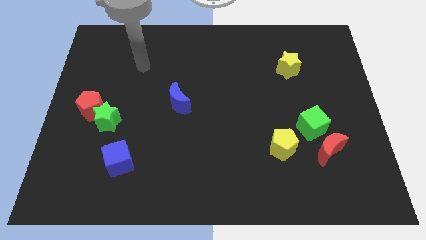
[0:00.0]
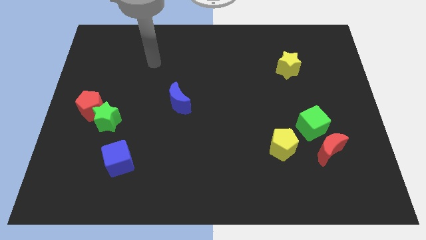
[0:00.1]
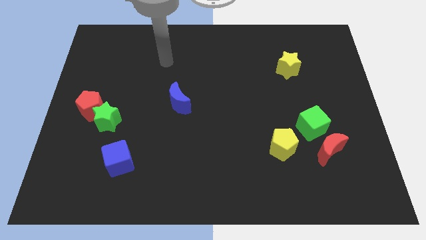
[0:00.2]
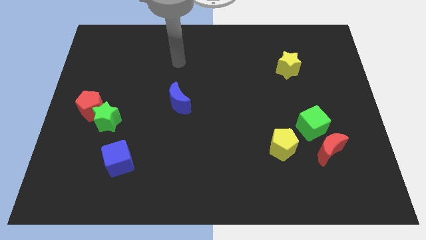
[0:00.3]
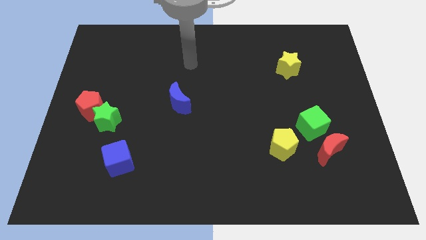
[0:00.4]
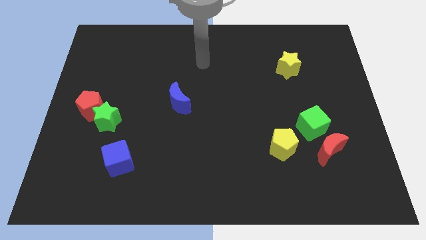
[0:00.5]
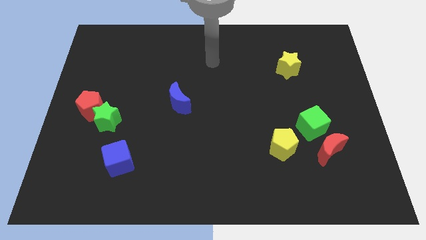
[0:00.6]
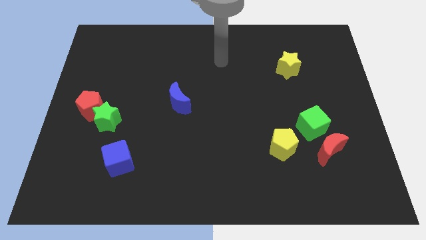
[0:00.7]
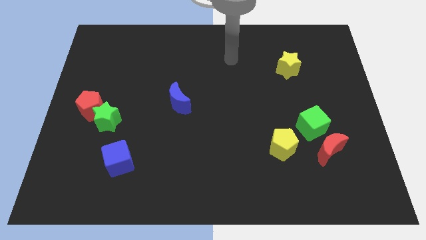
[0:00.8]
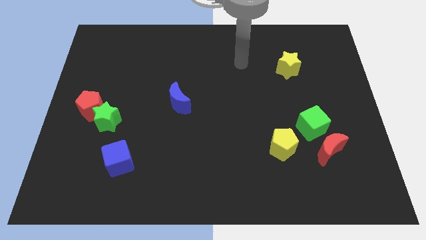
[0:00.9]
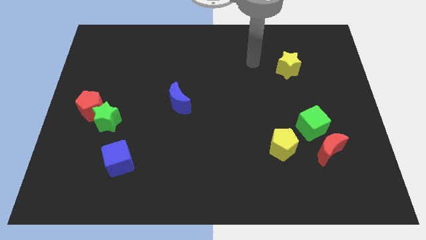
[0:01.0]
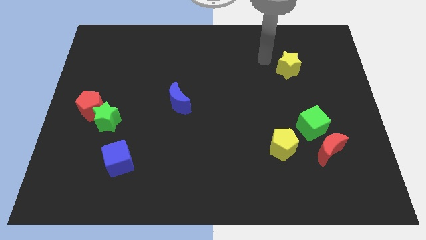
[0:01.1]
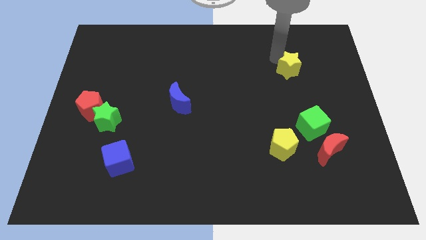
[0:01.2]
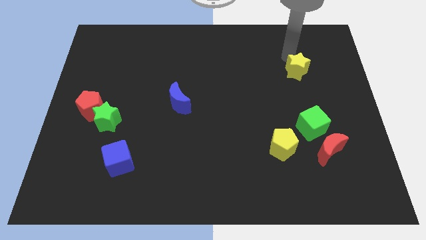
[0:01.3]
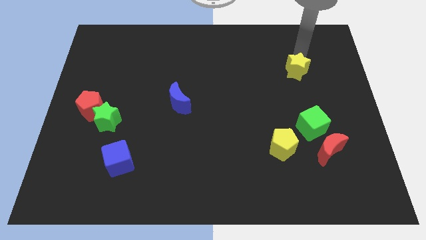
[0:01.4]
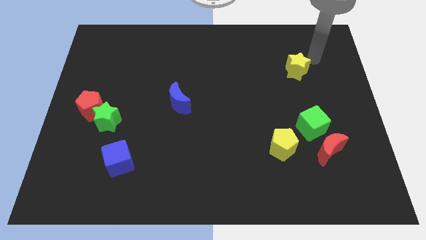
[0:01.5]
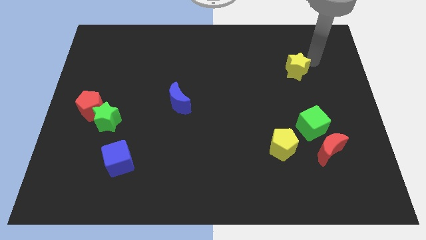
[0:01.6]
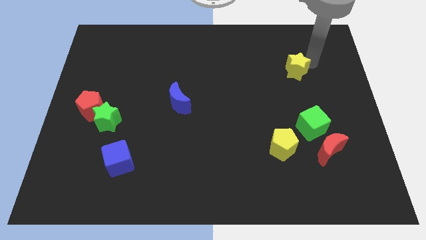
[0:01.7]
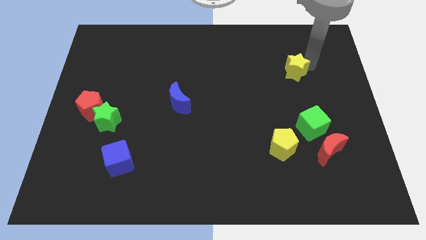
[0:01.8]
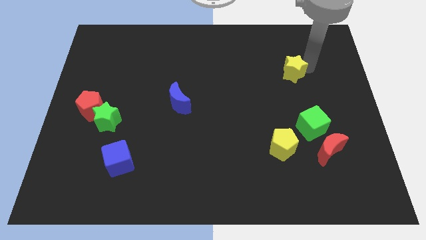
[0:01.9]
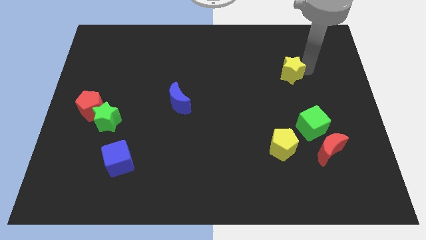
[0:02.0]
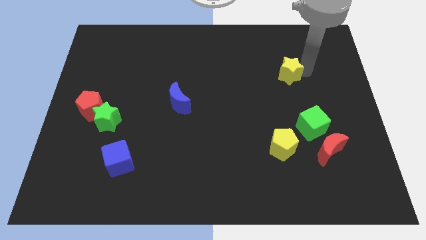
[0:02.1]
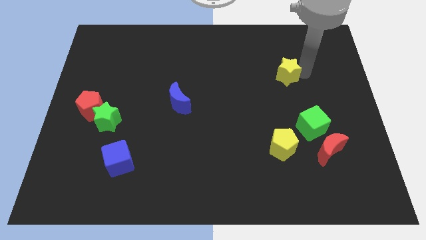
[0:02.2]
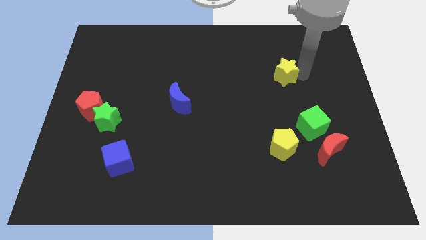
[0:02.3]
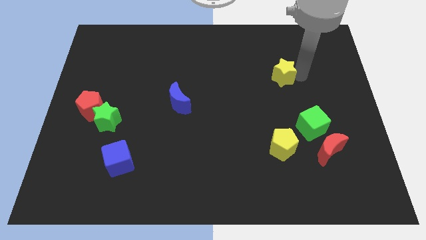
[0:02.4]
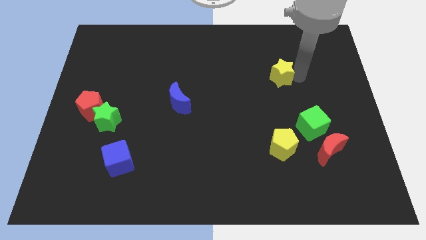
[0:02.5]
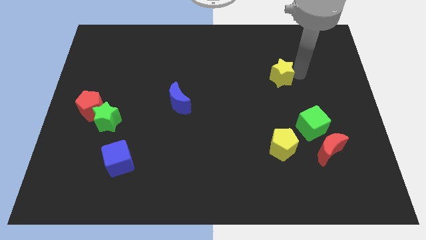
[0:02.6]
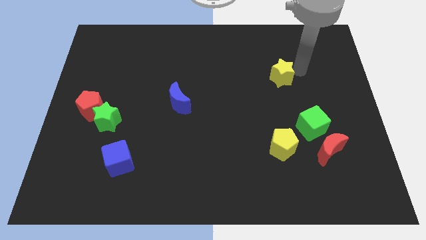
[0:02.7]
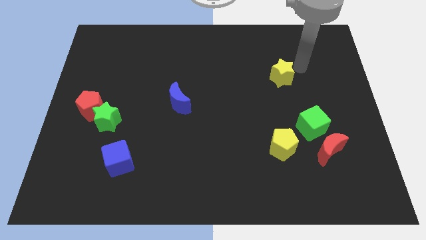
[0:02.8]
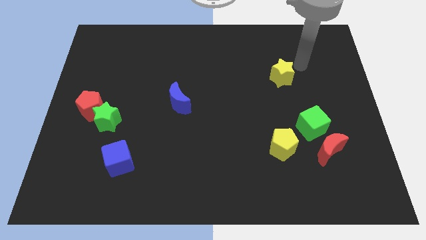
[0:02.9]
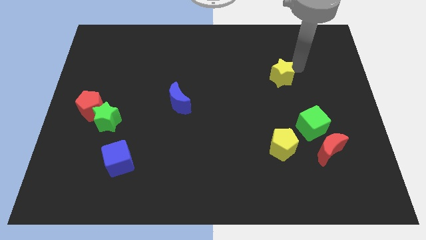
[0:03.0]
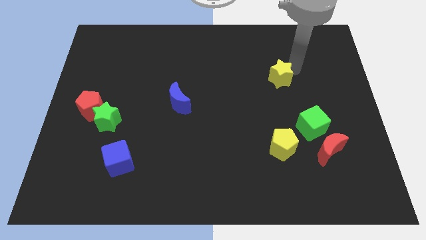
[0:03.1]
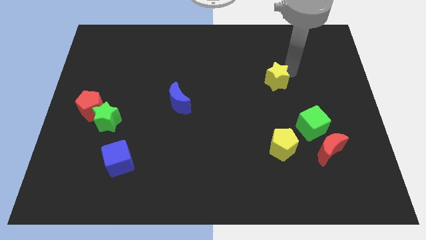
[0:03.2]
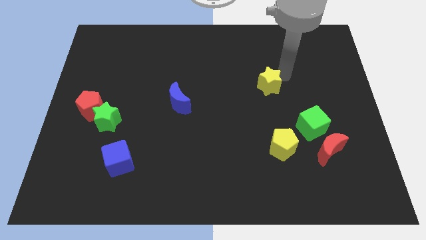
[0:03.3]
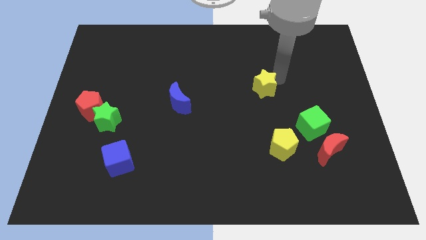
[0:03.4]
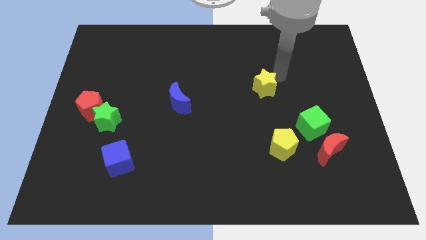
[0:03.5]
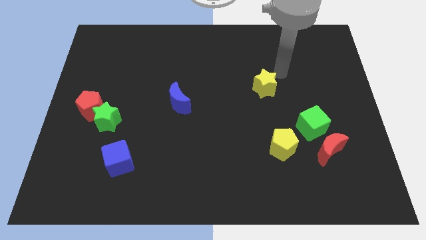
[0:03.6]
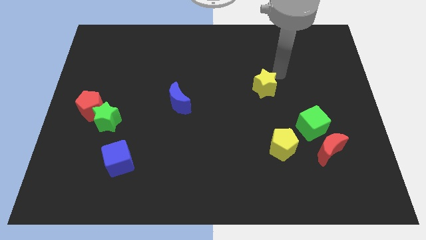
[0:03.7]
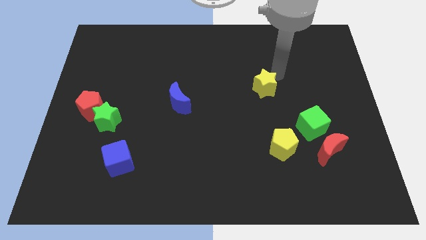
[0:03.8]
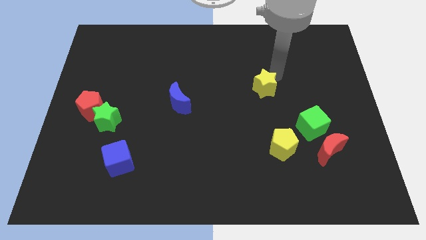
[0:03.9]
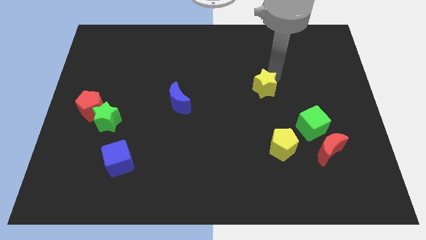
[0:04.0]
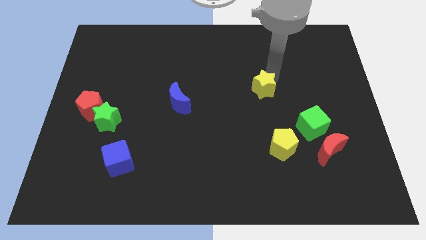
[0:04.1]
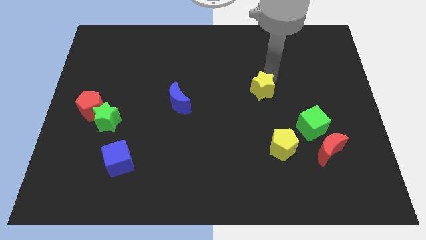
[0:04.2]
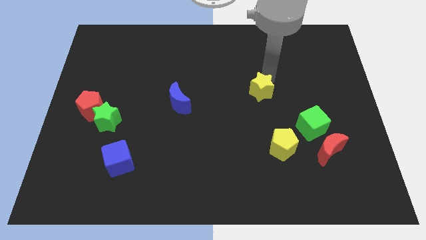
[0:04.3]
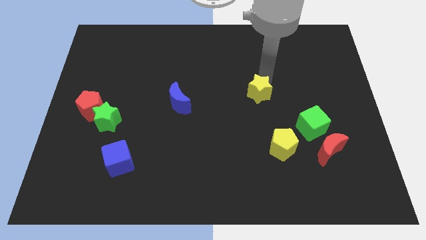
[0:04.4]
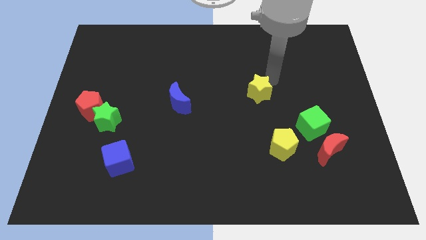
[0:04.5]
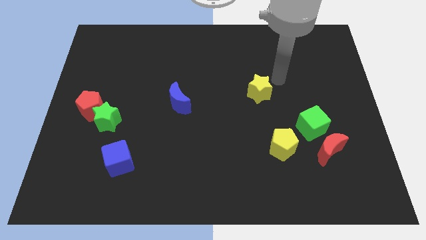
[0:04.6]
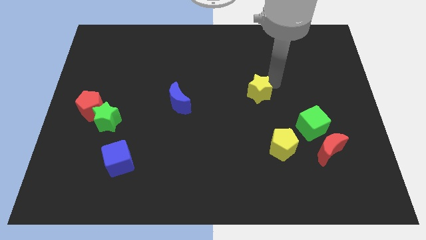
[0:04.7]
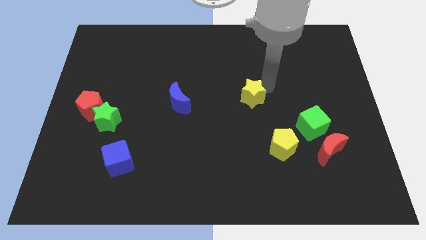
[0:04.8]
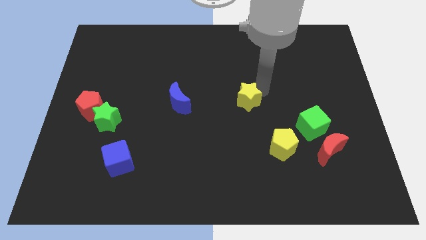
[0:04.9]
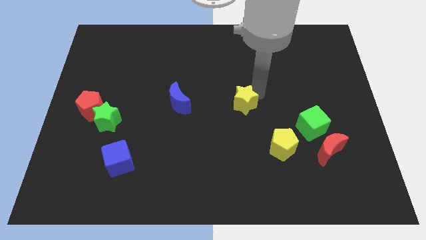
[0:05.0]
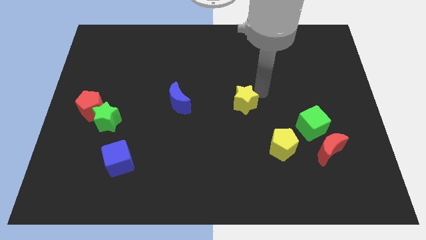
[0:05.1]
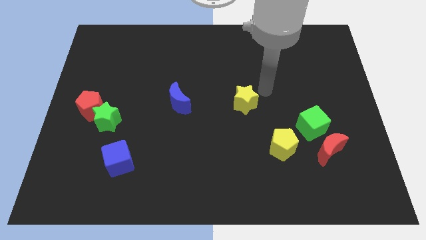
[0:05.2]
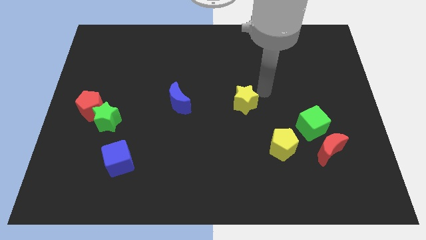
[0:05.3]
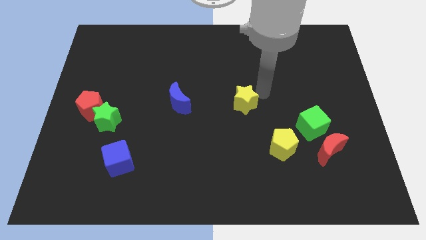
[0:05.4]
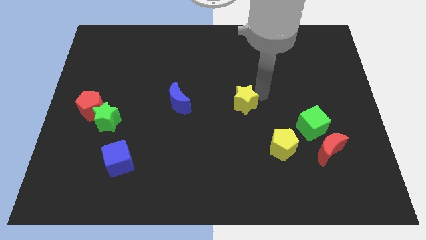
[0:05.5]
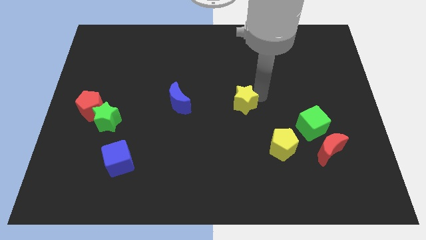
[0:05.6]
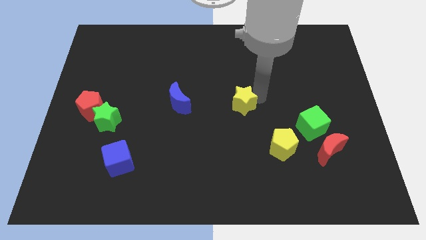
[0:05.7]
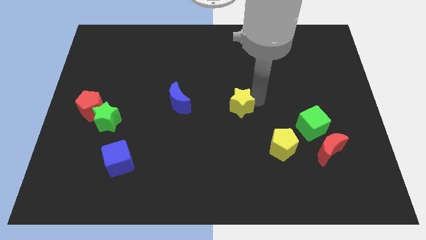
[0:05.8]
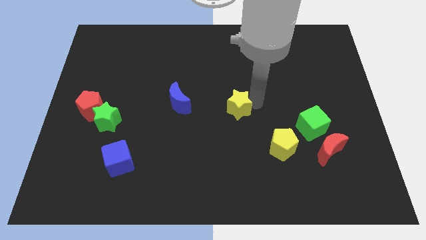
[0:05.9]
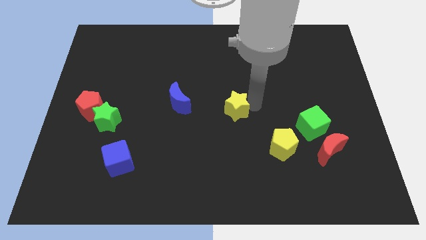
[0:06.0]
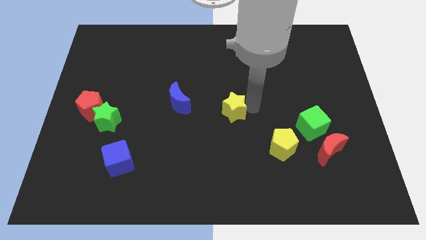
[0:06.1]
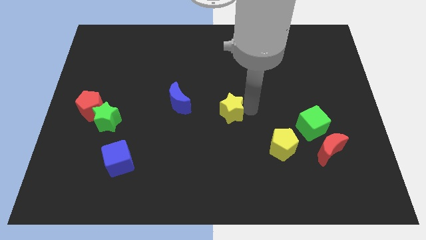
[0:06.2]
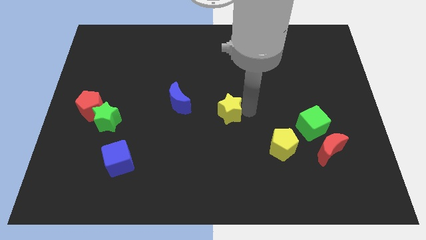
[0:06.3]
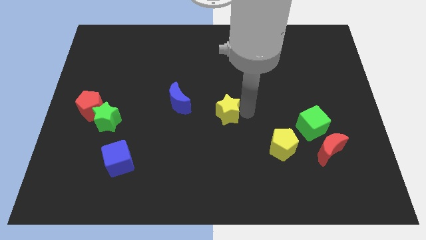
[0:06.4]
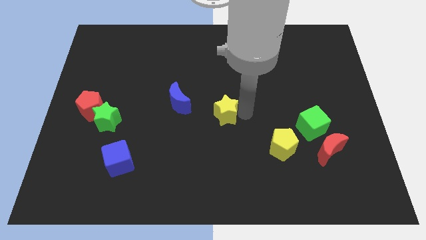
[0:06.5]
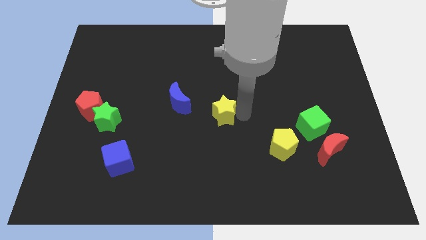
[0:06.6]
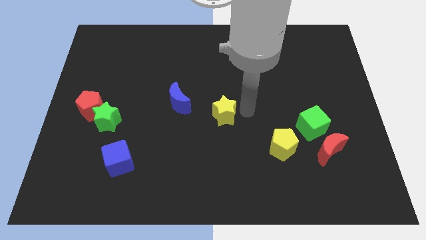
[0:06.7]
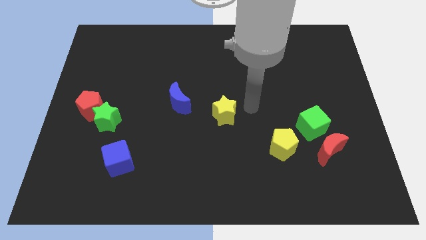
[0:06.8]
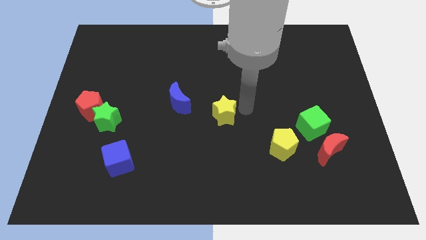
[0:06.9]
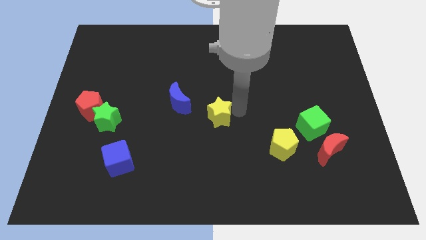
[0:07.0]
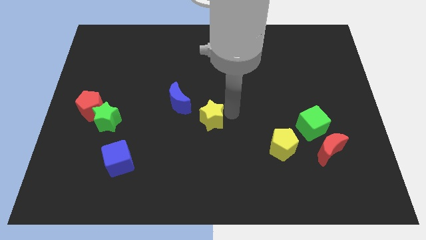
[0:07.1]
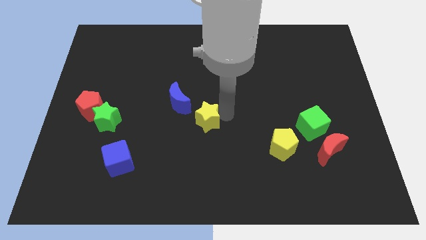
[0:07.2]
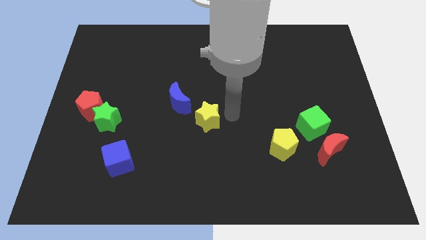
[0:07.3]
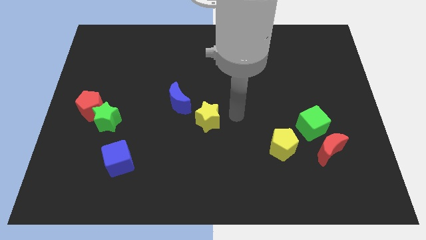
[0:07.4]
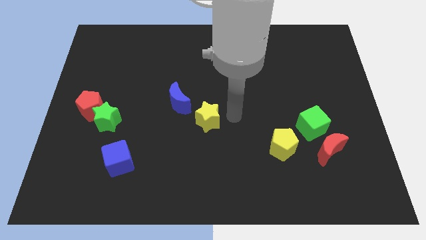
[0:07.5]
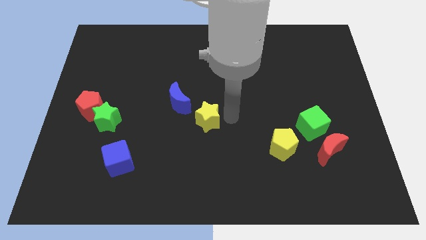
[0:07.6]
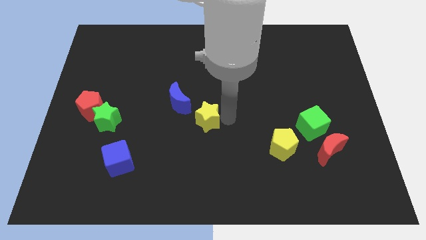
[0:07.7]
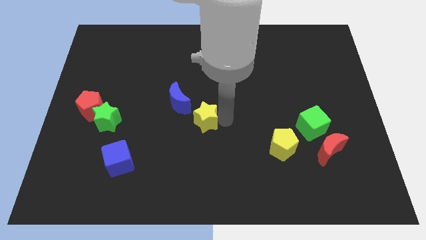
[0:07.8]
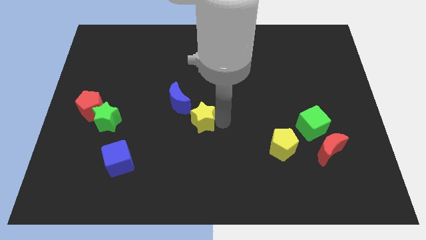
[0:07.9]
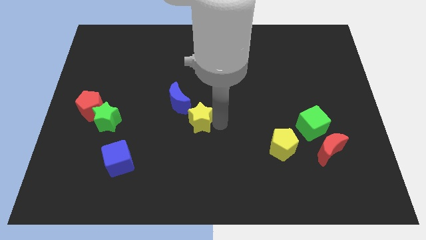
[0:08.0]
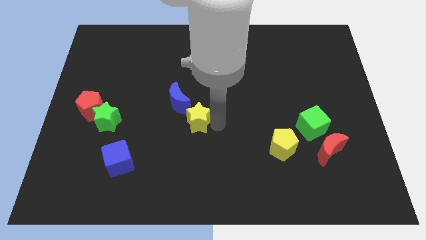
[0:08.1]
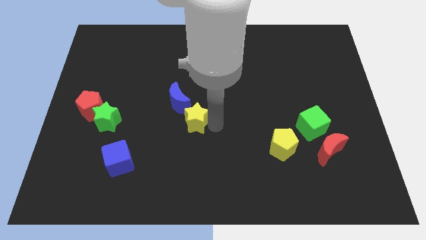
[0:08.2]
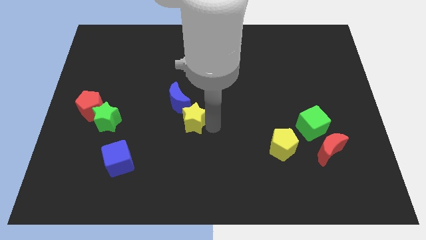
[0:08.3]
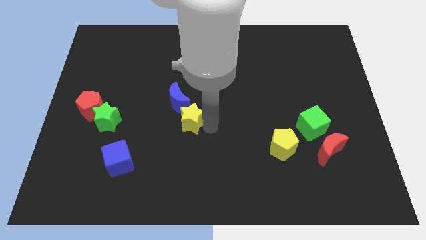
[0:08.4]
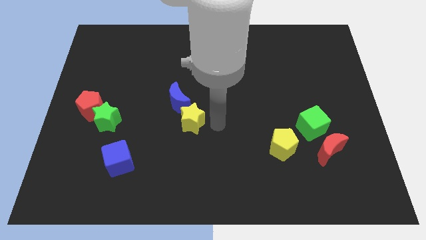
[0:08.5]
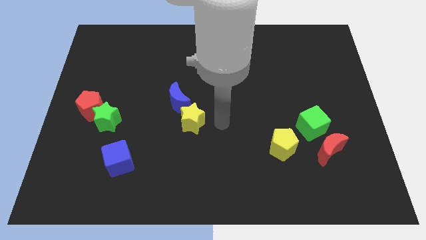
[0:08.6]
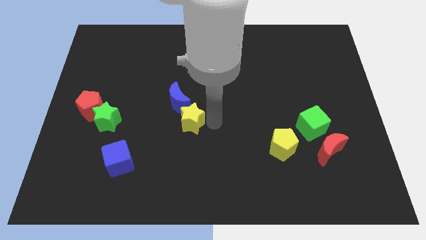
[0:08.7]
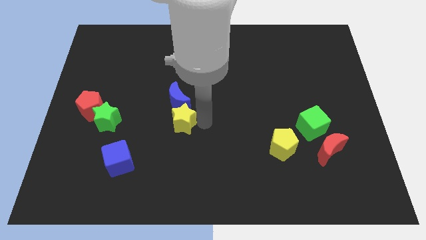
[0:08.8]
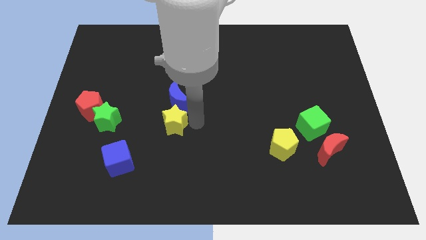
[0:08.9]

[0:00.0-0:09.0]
slide the yellow star to the bottom left of the blue moon
